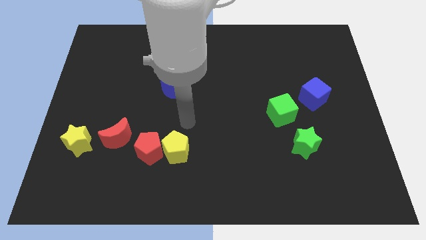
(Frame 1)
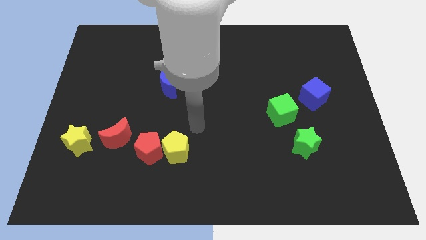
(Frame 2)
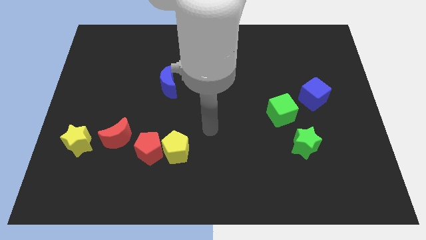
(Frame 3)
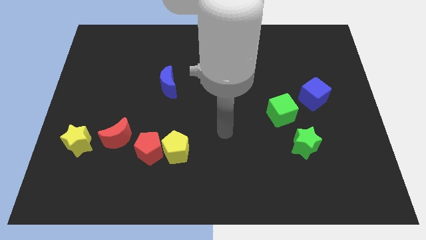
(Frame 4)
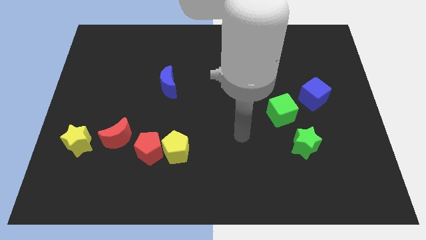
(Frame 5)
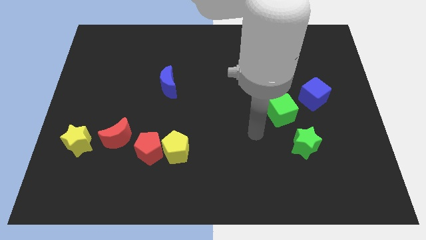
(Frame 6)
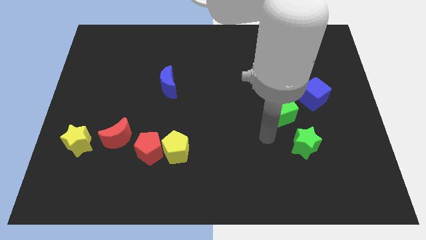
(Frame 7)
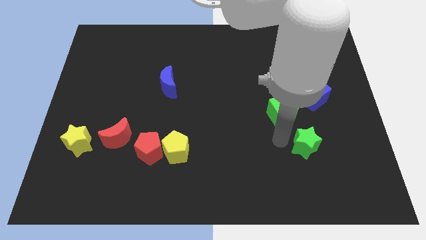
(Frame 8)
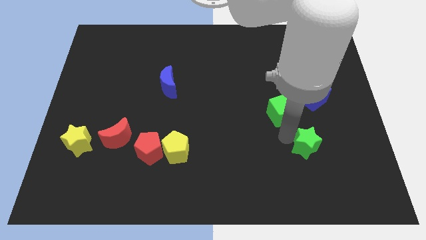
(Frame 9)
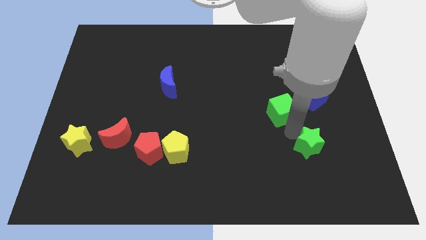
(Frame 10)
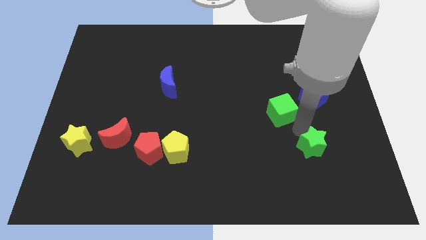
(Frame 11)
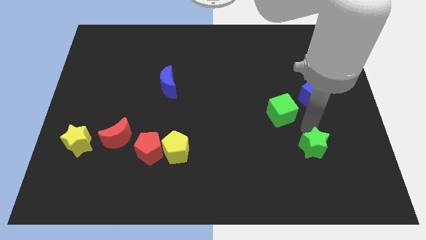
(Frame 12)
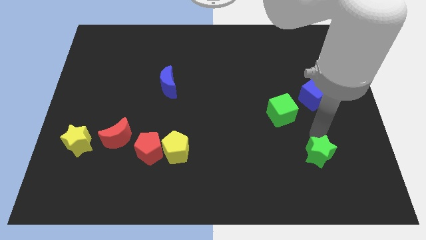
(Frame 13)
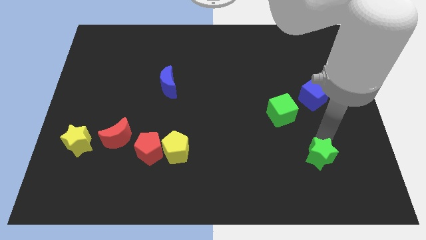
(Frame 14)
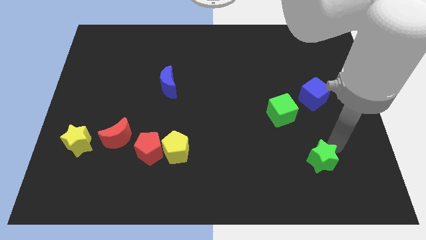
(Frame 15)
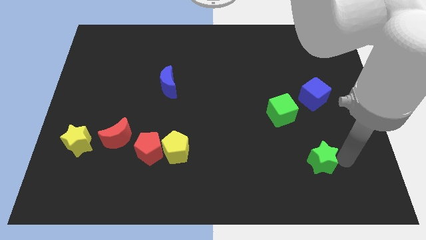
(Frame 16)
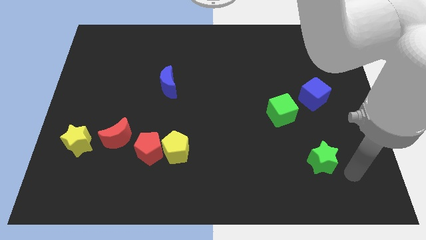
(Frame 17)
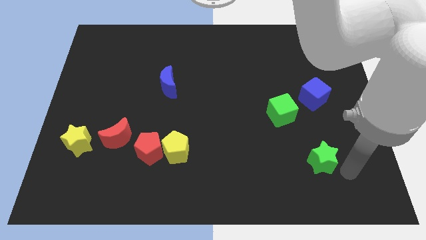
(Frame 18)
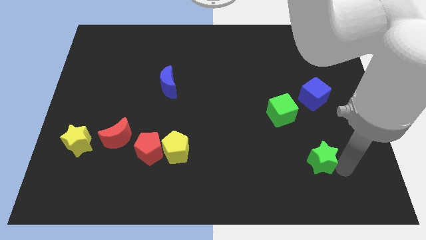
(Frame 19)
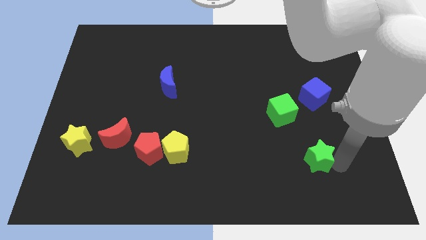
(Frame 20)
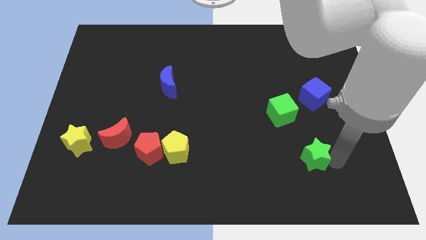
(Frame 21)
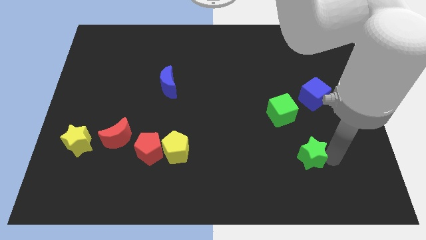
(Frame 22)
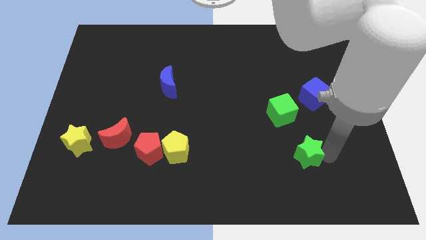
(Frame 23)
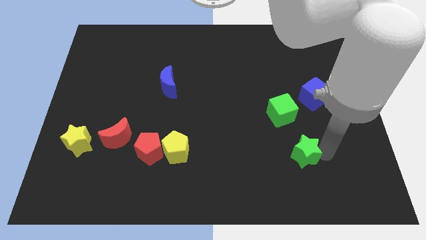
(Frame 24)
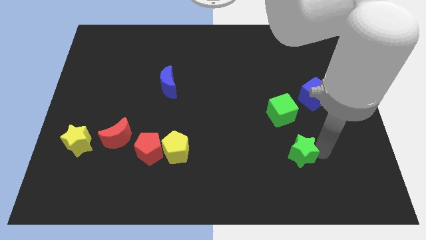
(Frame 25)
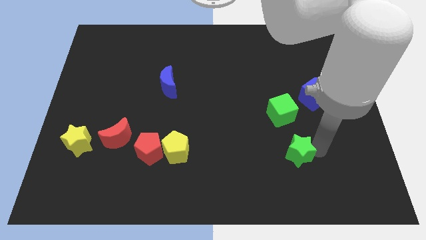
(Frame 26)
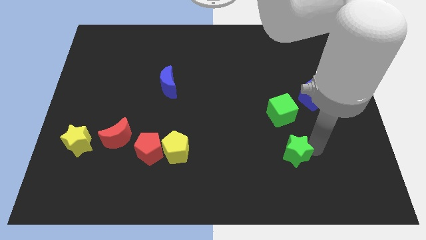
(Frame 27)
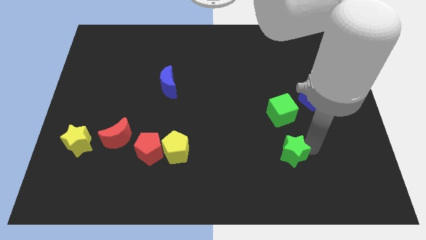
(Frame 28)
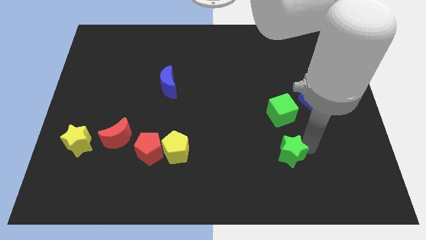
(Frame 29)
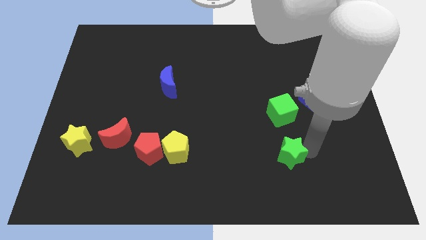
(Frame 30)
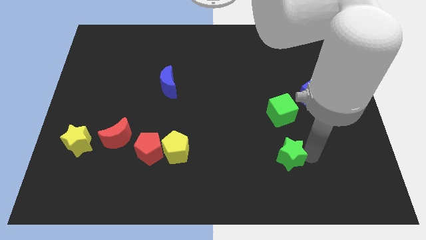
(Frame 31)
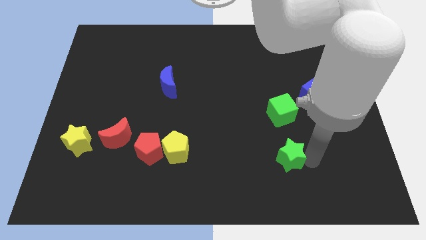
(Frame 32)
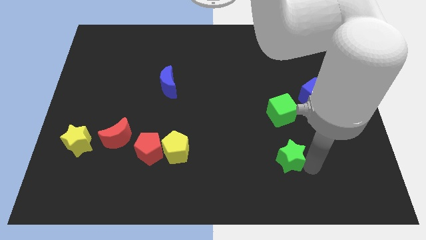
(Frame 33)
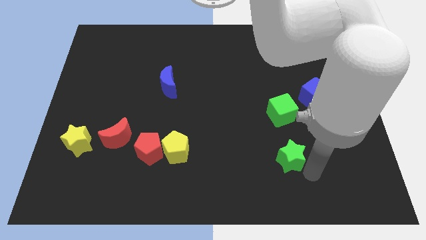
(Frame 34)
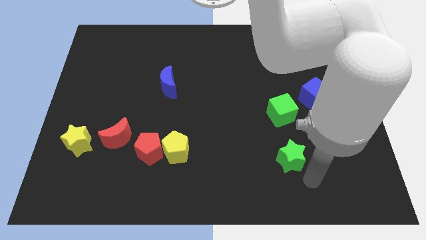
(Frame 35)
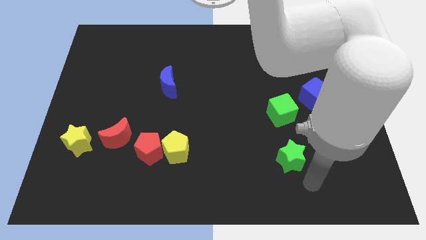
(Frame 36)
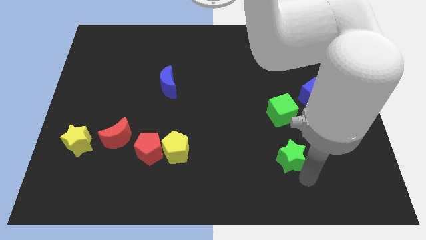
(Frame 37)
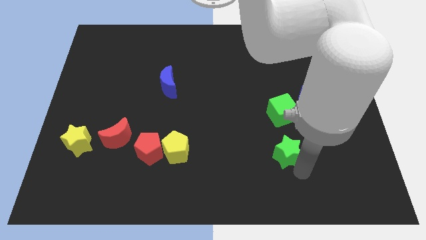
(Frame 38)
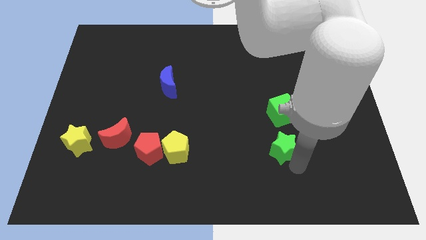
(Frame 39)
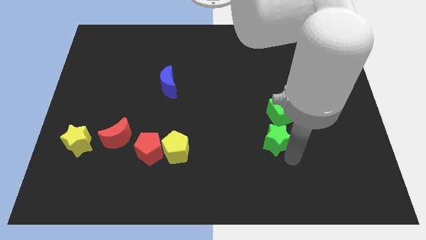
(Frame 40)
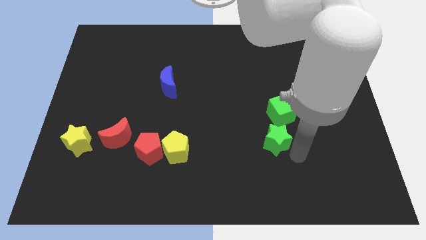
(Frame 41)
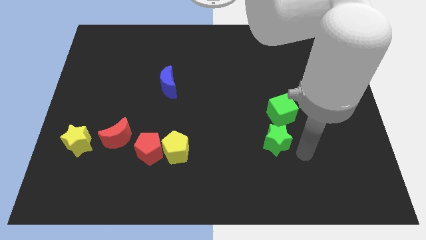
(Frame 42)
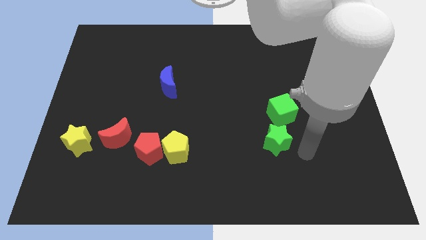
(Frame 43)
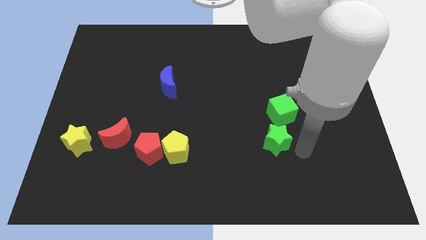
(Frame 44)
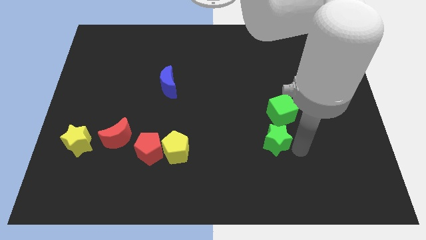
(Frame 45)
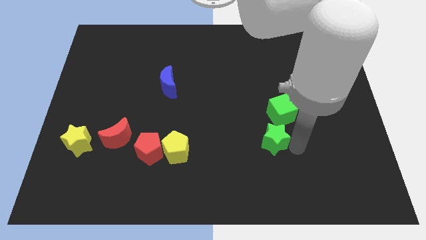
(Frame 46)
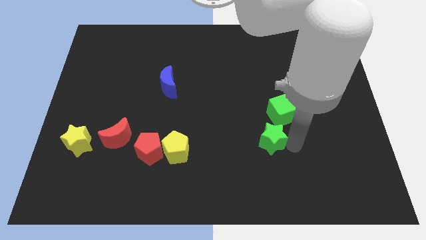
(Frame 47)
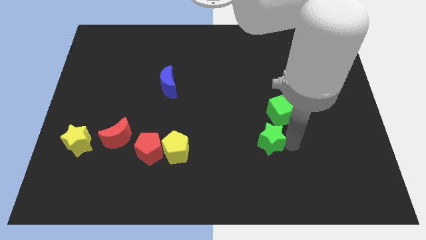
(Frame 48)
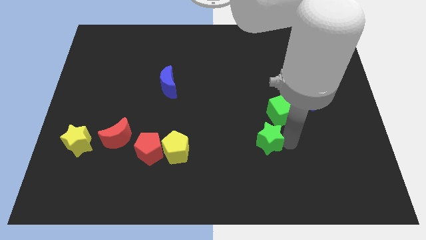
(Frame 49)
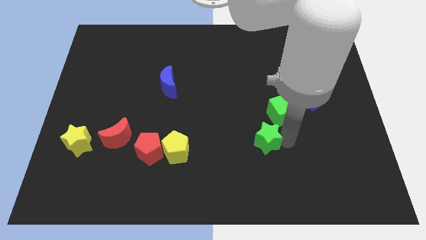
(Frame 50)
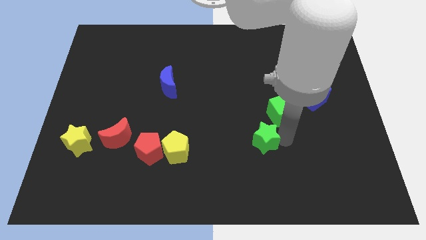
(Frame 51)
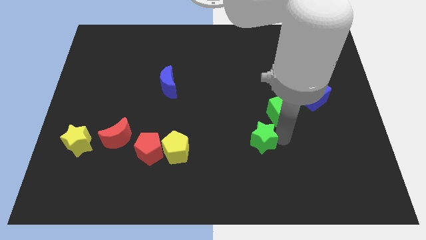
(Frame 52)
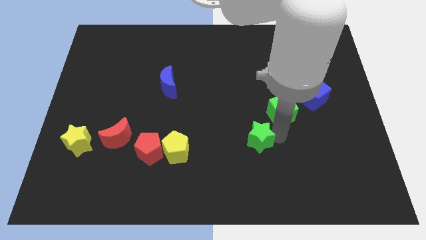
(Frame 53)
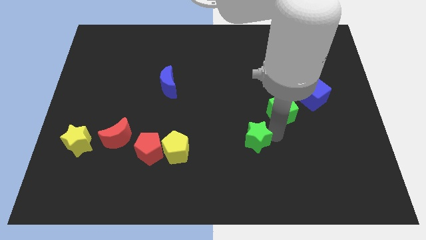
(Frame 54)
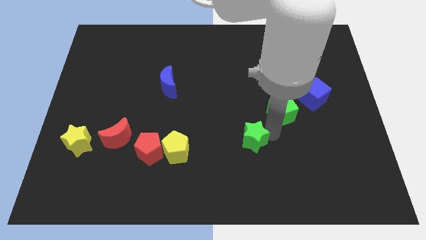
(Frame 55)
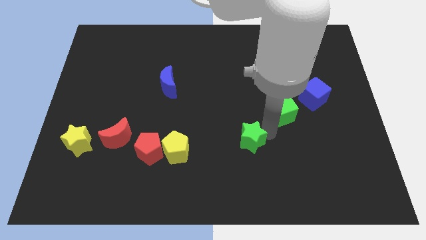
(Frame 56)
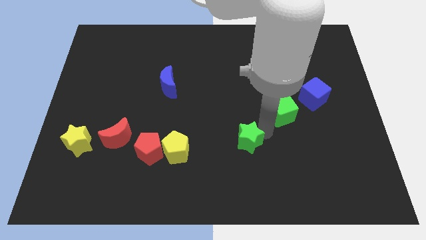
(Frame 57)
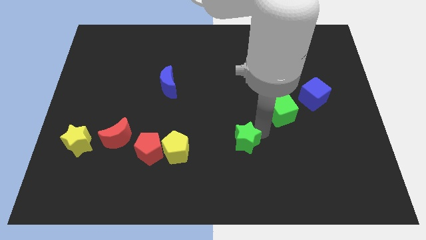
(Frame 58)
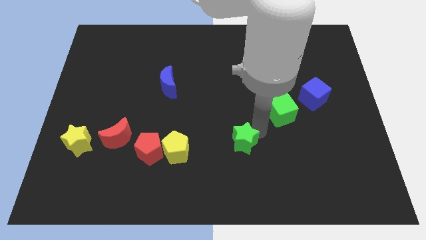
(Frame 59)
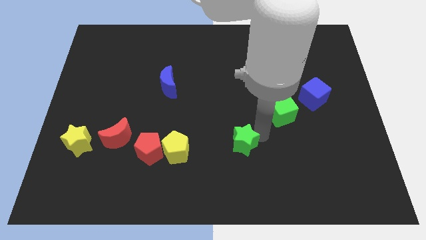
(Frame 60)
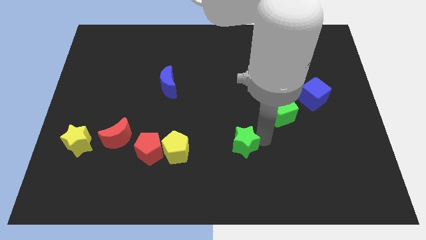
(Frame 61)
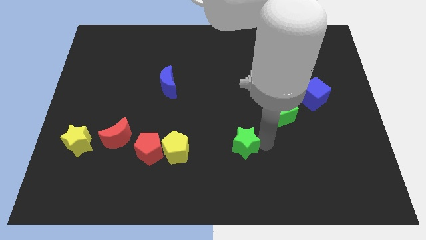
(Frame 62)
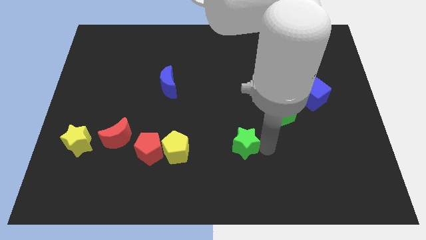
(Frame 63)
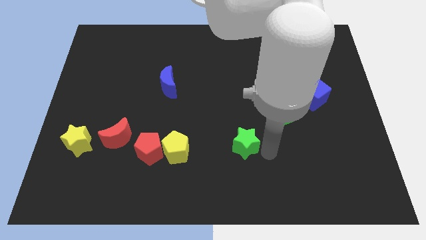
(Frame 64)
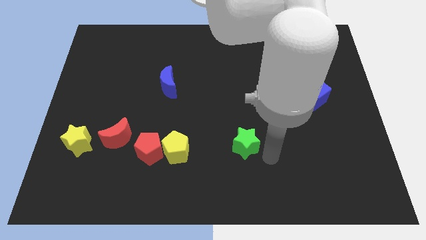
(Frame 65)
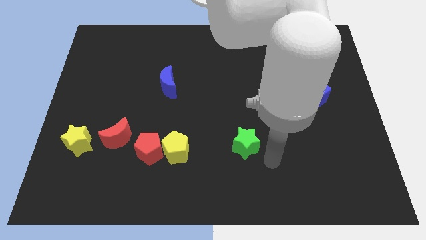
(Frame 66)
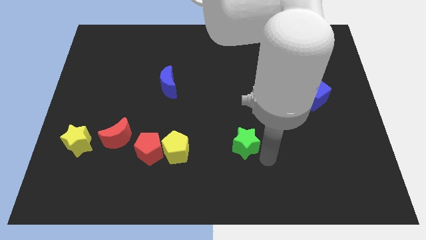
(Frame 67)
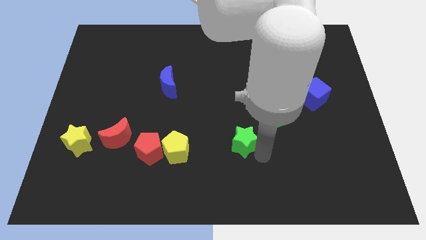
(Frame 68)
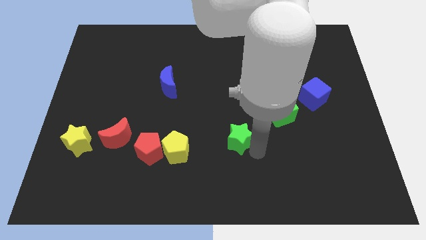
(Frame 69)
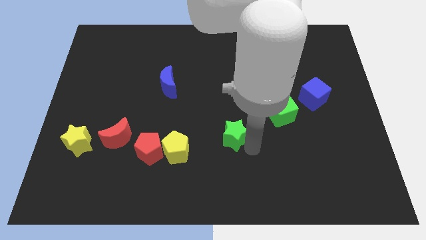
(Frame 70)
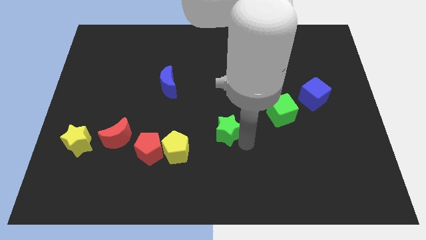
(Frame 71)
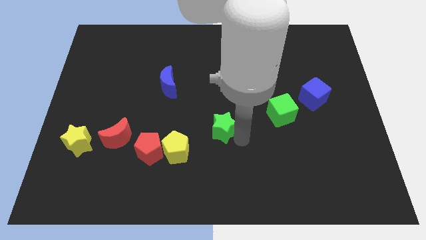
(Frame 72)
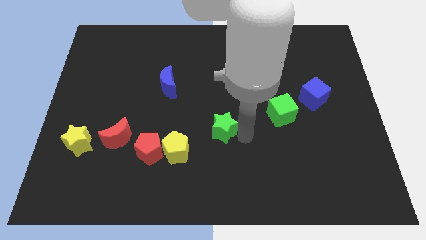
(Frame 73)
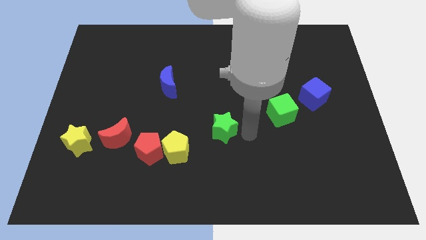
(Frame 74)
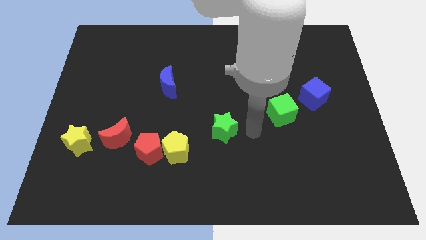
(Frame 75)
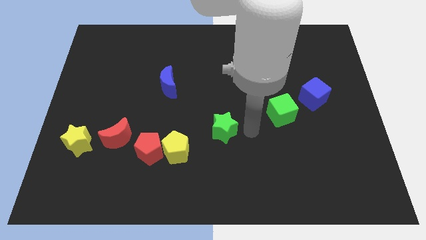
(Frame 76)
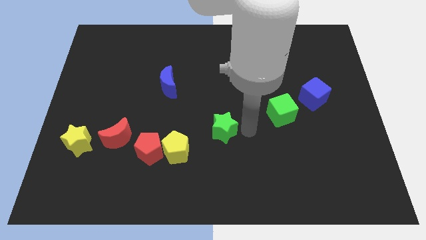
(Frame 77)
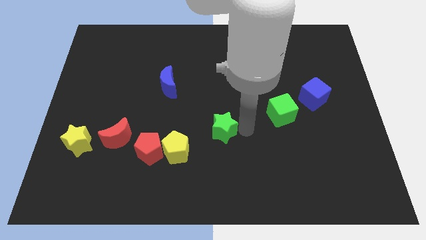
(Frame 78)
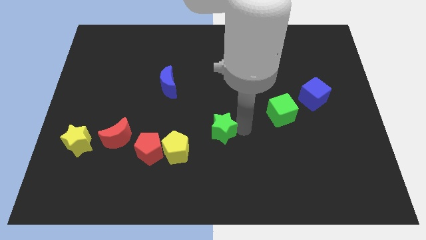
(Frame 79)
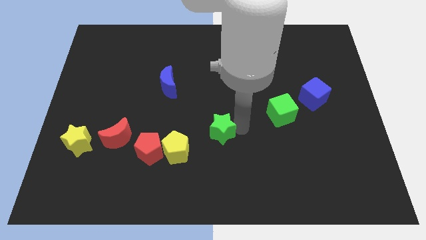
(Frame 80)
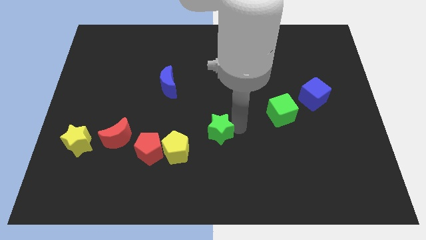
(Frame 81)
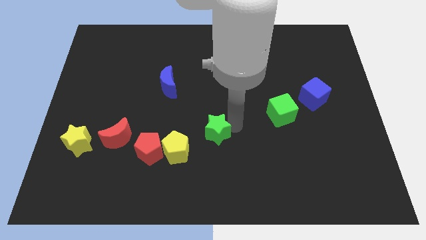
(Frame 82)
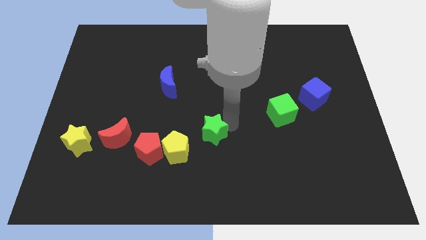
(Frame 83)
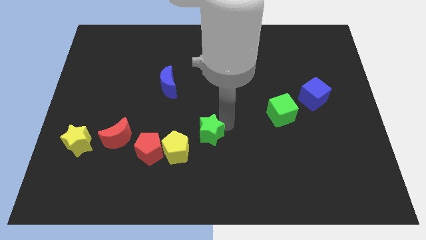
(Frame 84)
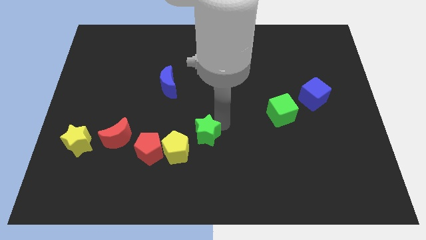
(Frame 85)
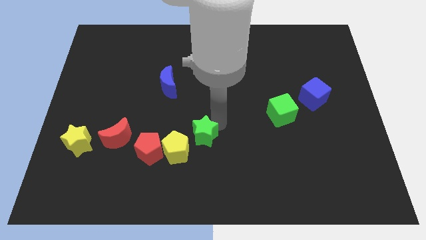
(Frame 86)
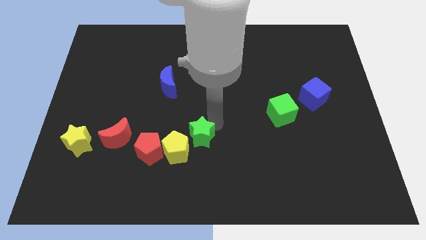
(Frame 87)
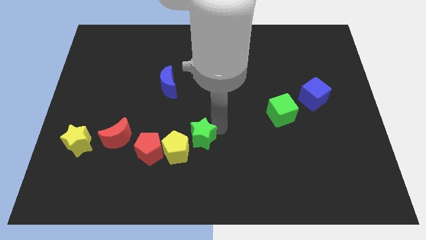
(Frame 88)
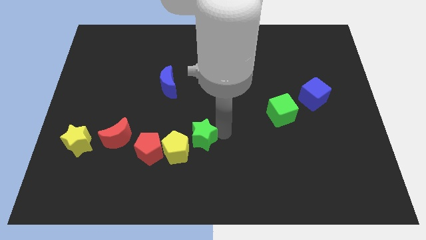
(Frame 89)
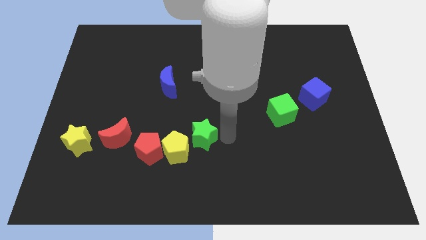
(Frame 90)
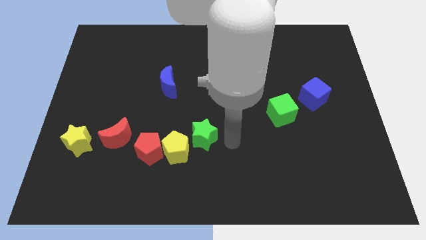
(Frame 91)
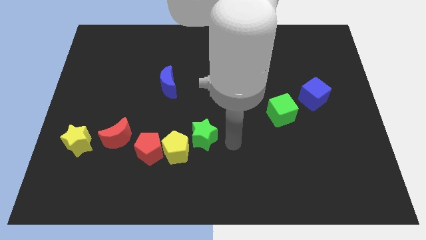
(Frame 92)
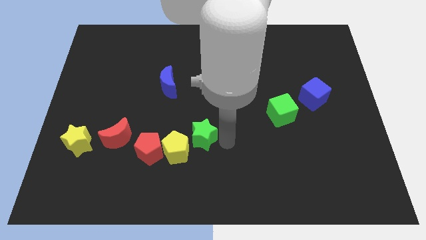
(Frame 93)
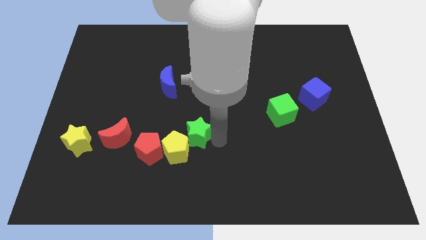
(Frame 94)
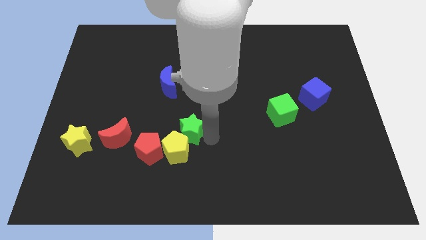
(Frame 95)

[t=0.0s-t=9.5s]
push the green star to the top right side of the red pentagon
